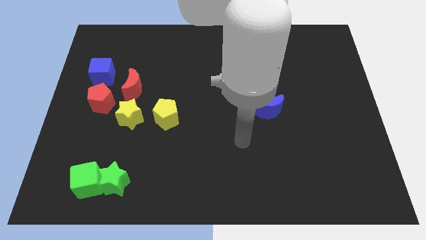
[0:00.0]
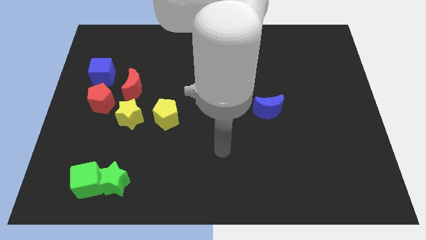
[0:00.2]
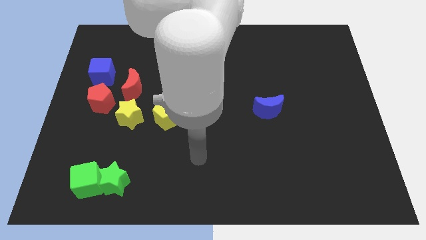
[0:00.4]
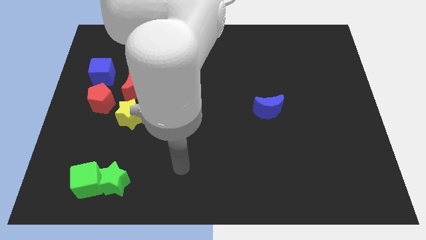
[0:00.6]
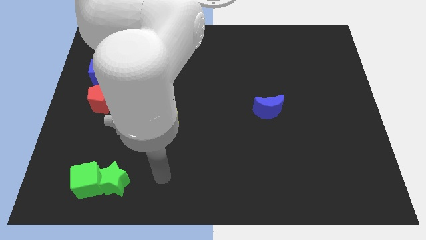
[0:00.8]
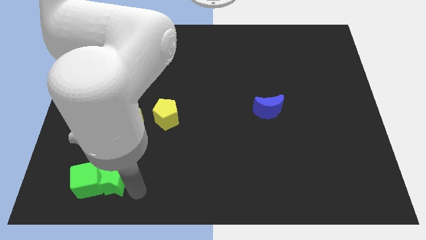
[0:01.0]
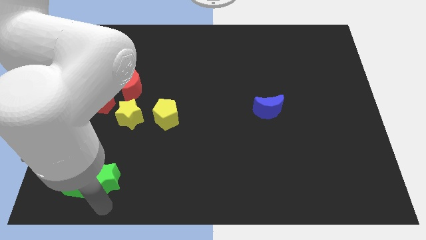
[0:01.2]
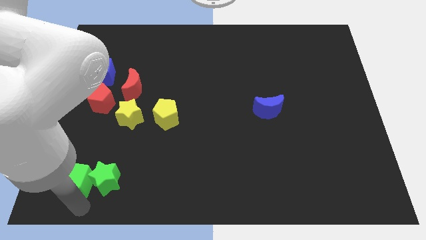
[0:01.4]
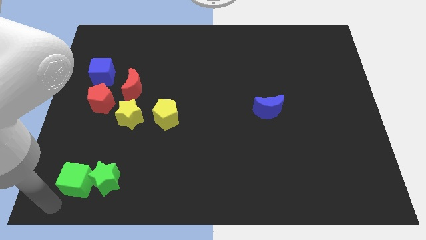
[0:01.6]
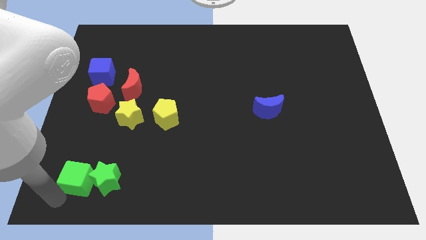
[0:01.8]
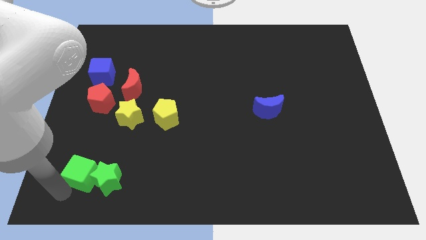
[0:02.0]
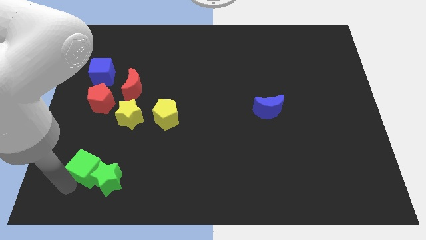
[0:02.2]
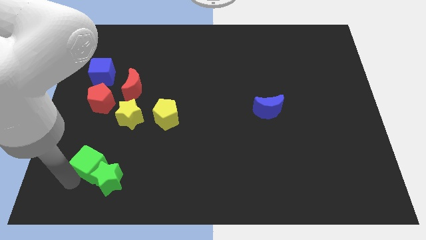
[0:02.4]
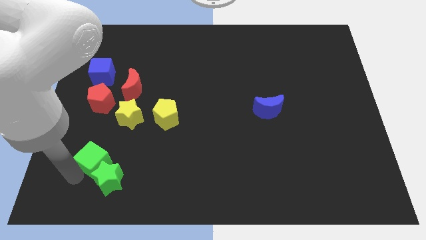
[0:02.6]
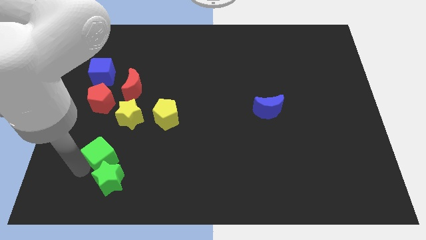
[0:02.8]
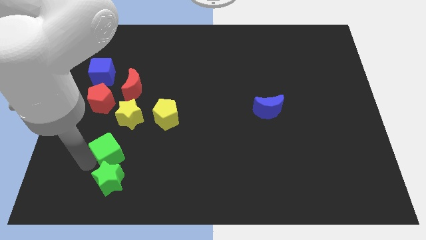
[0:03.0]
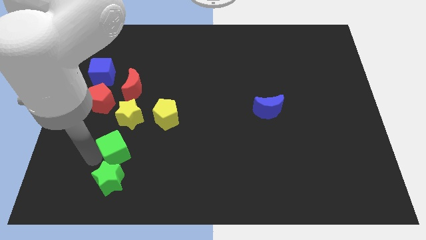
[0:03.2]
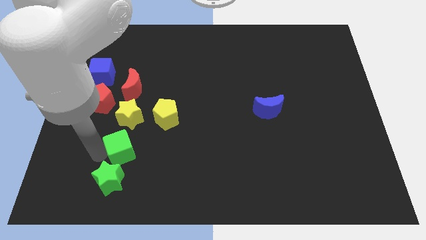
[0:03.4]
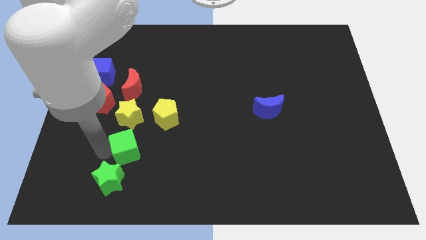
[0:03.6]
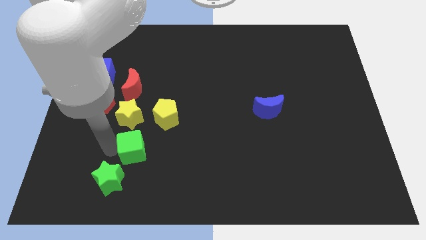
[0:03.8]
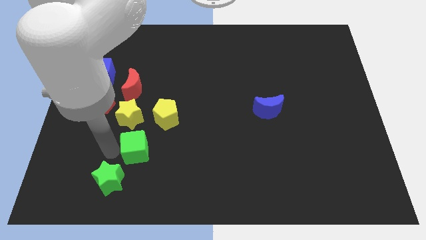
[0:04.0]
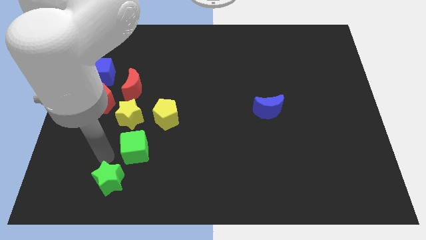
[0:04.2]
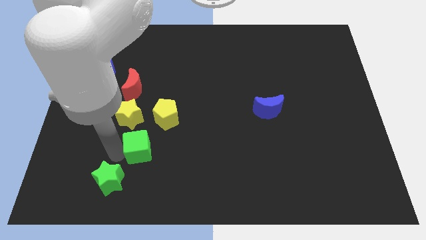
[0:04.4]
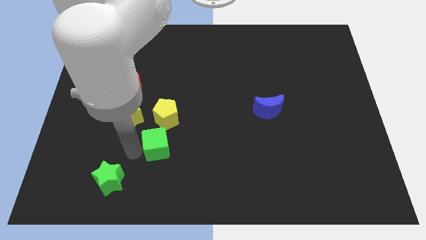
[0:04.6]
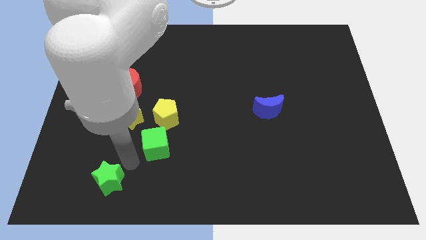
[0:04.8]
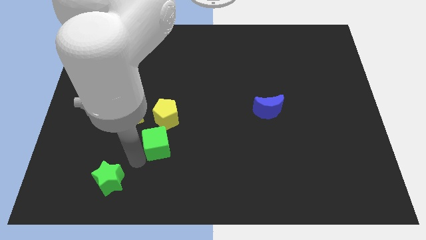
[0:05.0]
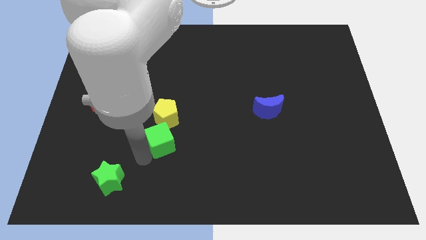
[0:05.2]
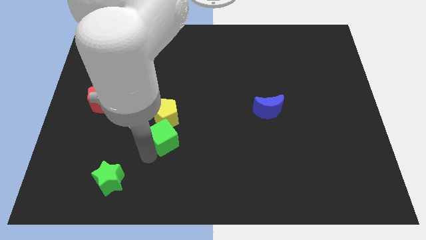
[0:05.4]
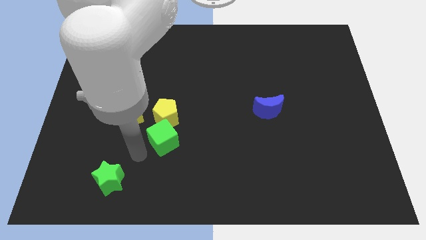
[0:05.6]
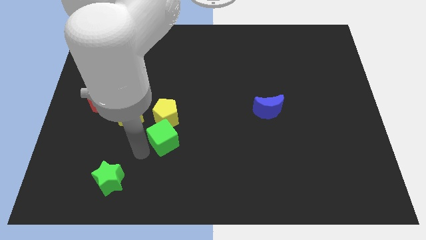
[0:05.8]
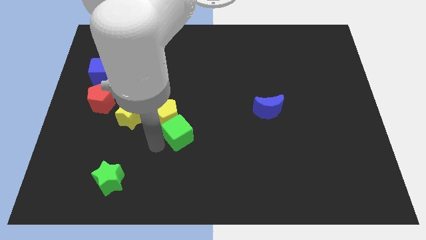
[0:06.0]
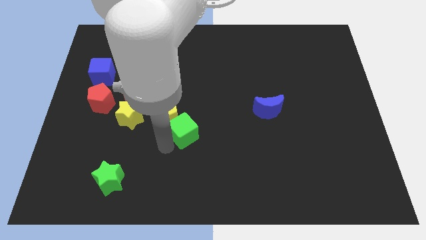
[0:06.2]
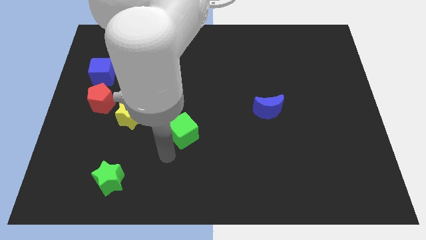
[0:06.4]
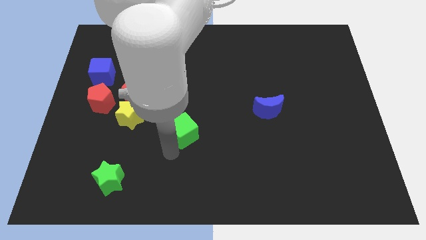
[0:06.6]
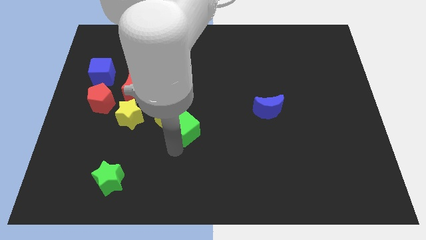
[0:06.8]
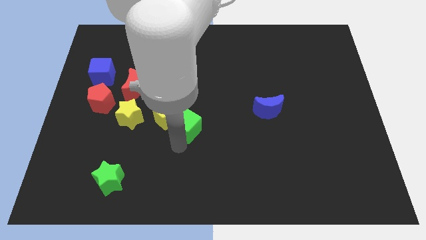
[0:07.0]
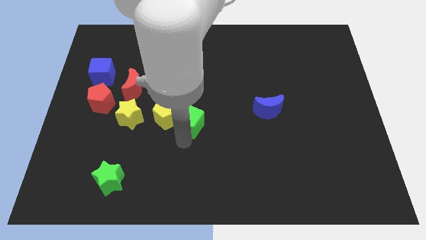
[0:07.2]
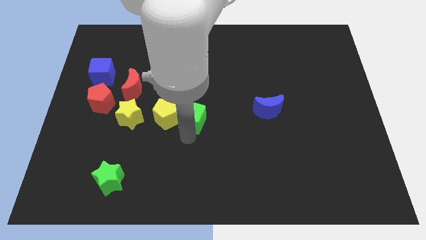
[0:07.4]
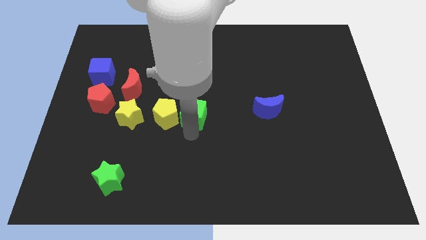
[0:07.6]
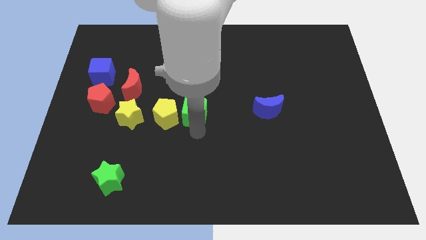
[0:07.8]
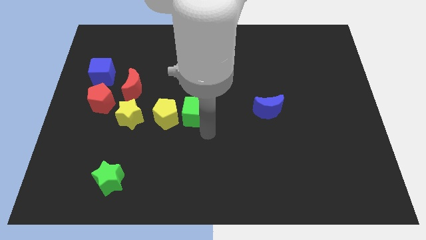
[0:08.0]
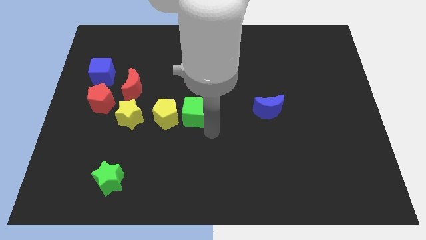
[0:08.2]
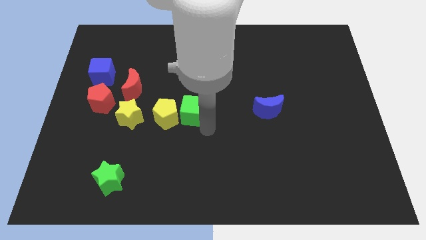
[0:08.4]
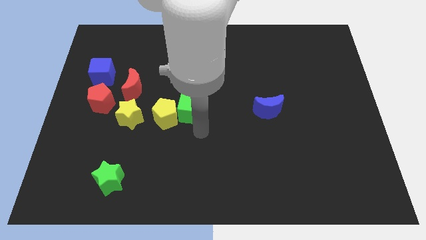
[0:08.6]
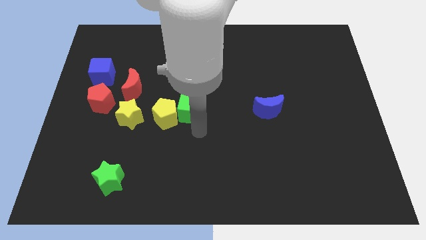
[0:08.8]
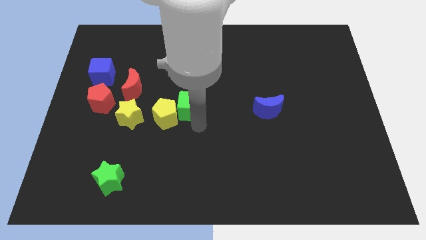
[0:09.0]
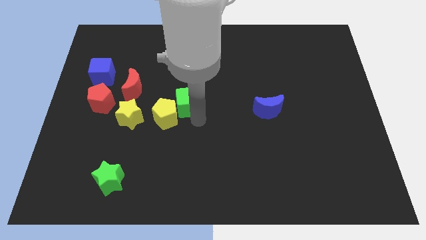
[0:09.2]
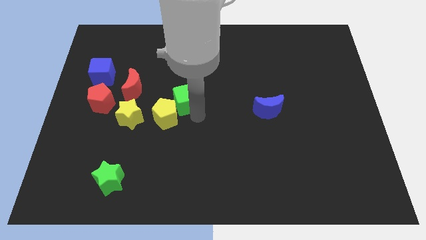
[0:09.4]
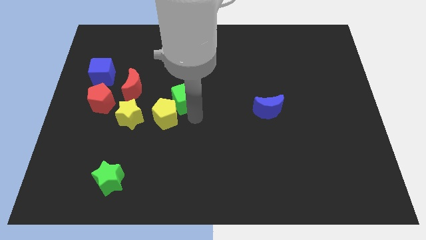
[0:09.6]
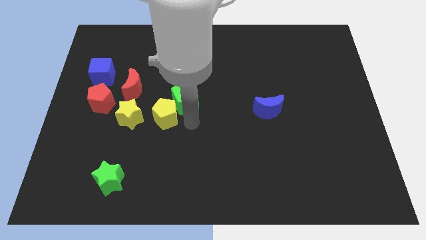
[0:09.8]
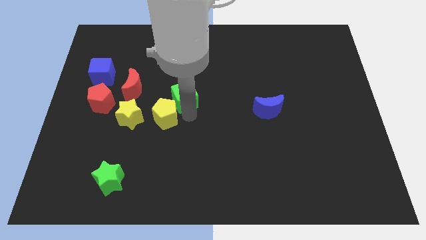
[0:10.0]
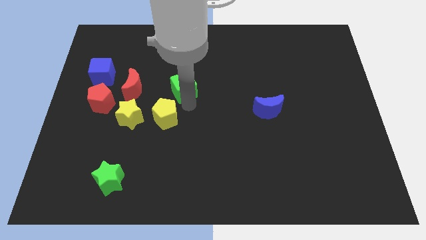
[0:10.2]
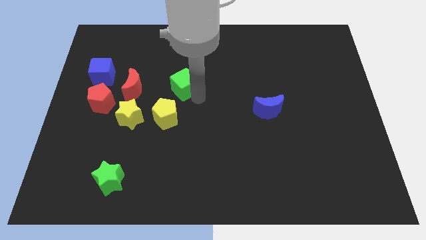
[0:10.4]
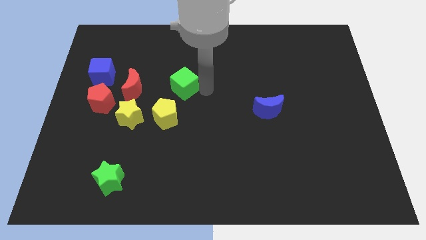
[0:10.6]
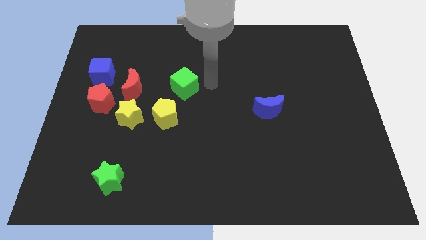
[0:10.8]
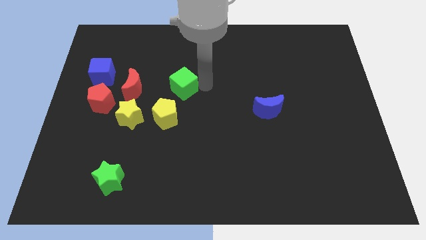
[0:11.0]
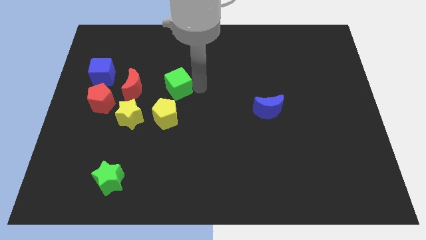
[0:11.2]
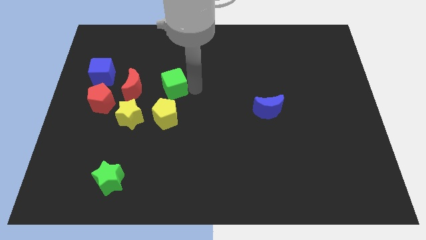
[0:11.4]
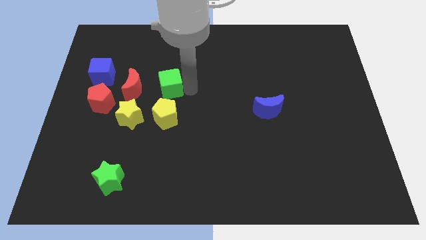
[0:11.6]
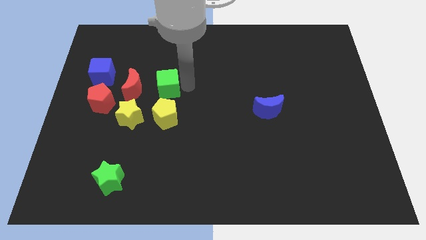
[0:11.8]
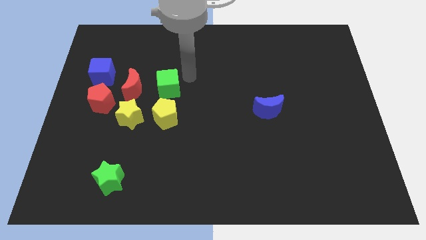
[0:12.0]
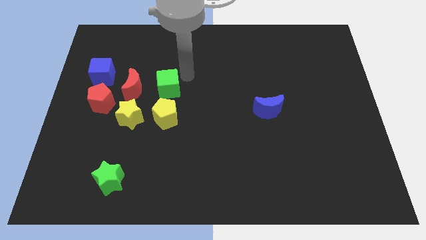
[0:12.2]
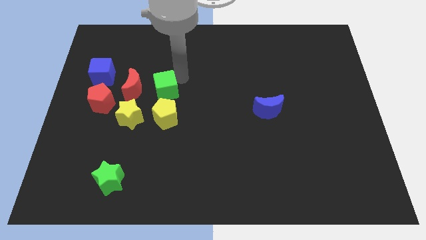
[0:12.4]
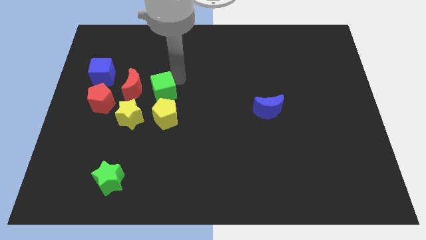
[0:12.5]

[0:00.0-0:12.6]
push the green cube right of the red pentagon

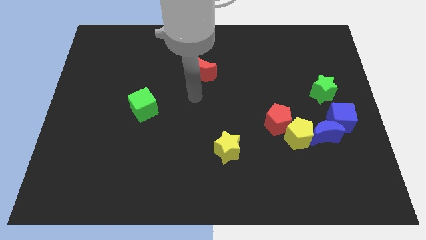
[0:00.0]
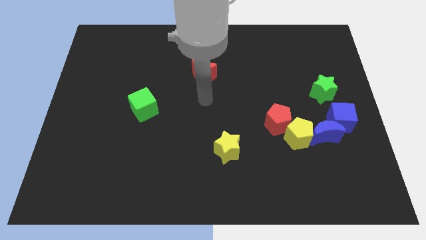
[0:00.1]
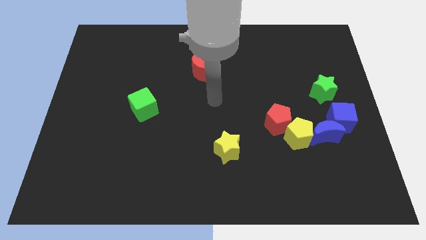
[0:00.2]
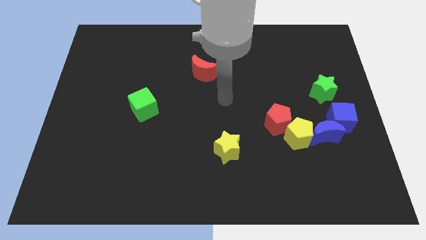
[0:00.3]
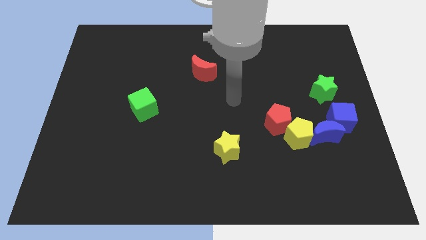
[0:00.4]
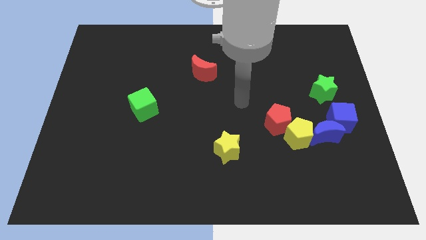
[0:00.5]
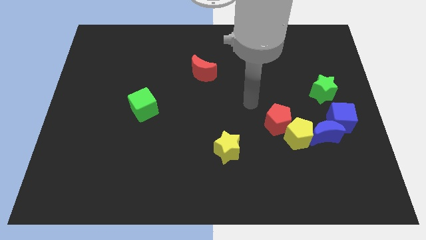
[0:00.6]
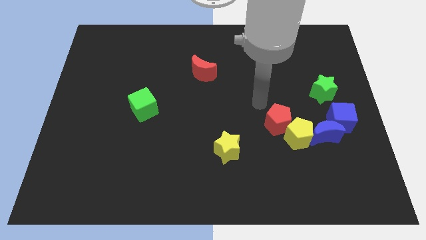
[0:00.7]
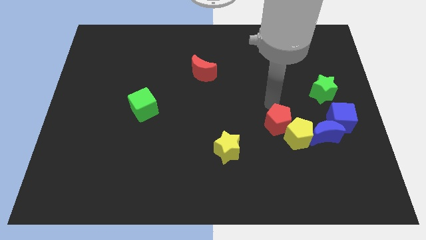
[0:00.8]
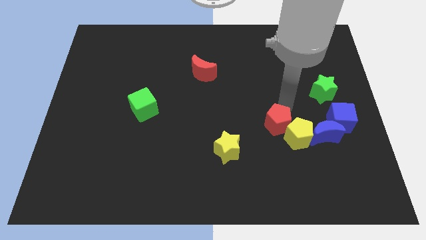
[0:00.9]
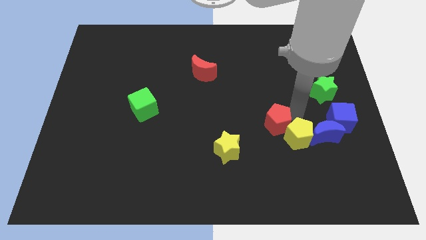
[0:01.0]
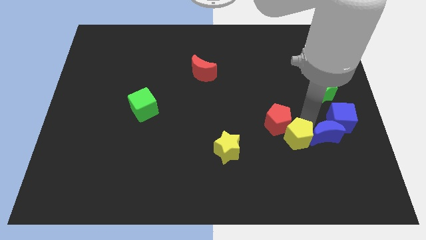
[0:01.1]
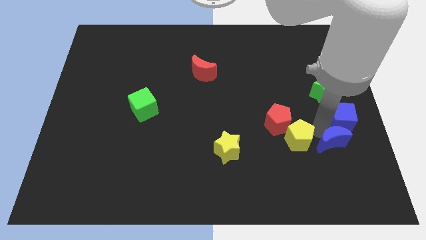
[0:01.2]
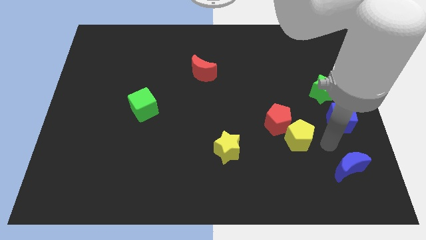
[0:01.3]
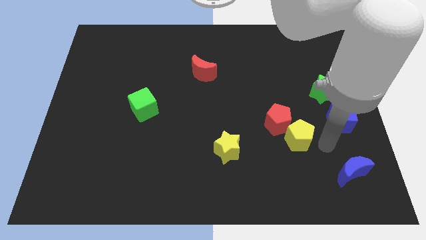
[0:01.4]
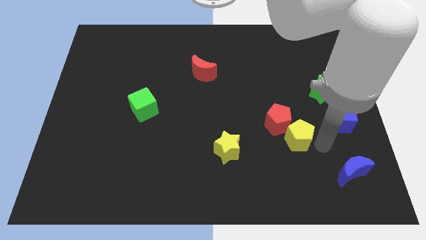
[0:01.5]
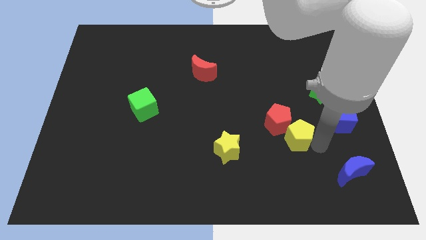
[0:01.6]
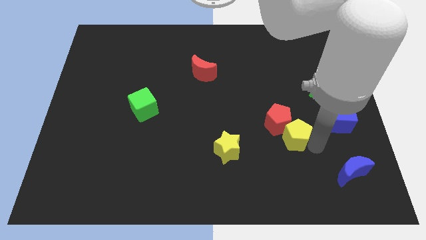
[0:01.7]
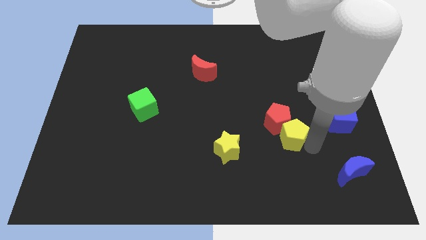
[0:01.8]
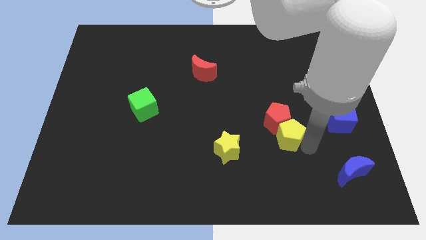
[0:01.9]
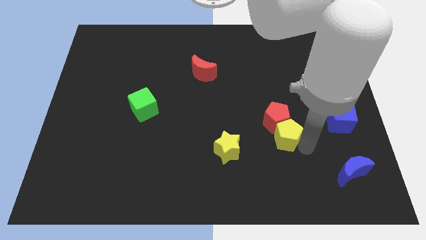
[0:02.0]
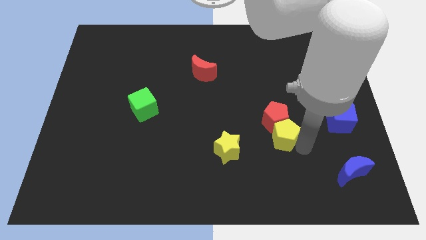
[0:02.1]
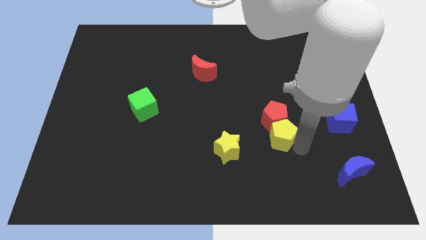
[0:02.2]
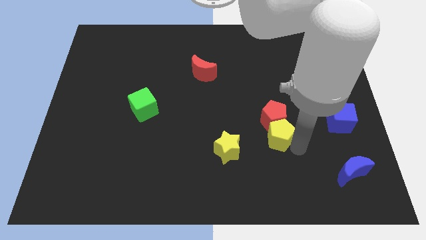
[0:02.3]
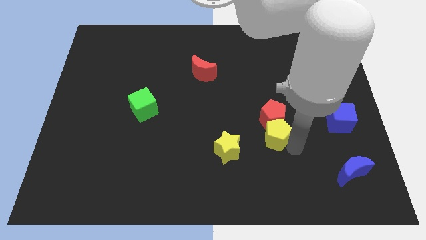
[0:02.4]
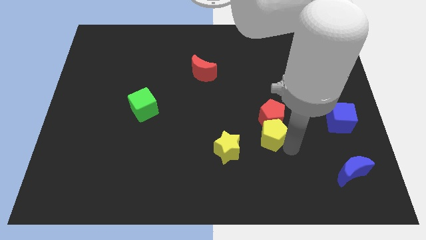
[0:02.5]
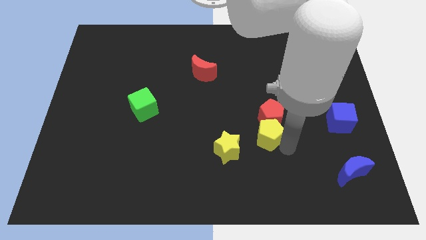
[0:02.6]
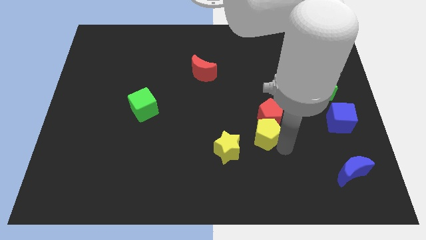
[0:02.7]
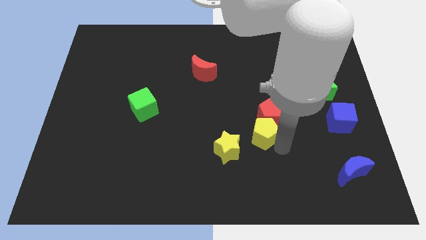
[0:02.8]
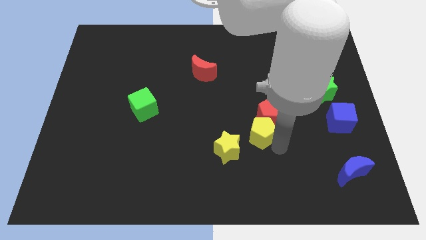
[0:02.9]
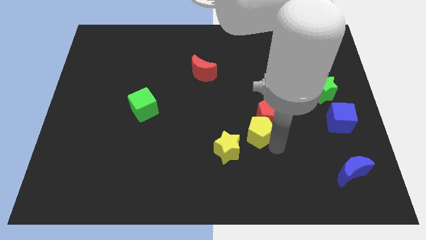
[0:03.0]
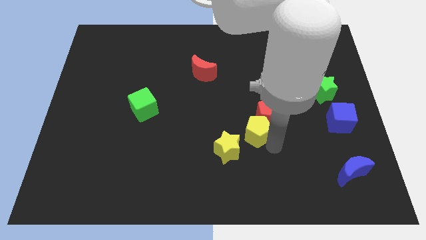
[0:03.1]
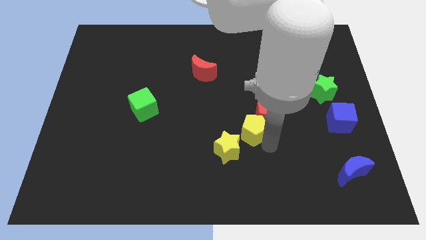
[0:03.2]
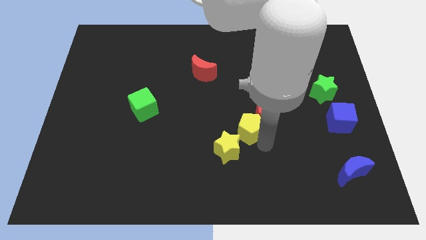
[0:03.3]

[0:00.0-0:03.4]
move the yellow pentagon above the yellow star
